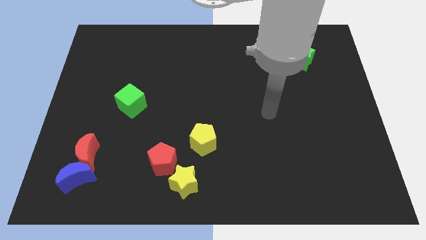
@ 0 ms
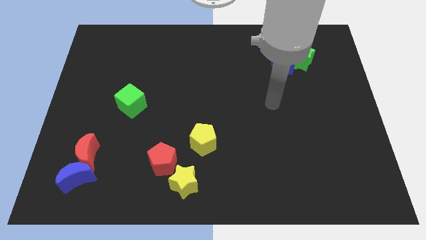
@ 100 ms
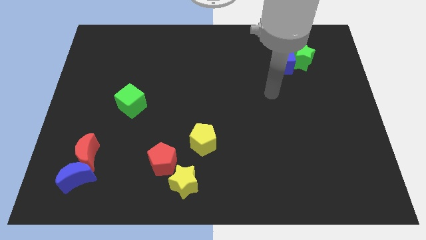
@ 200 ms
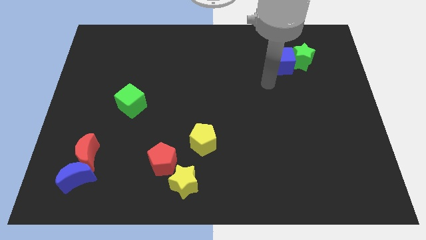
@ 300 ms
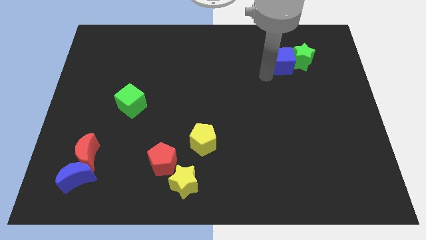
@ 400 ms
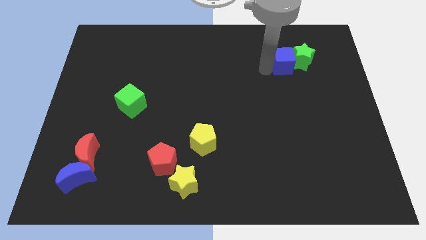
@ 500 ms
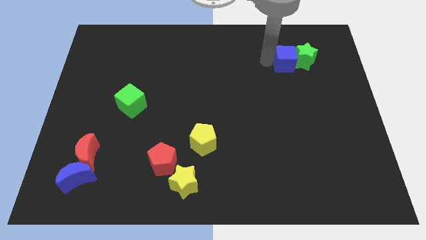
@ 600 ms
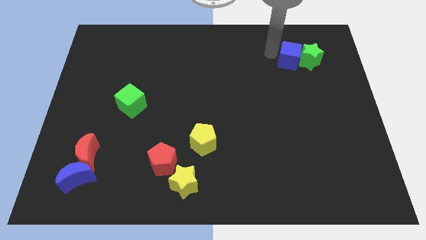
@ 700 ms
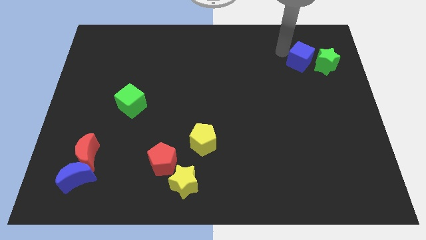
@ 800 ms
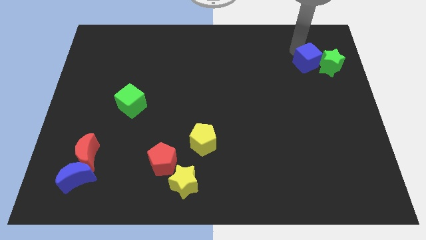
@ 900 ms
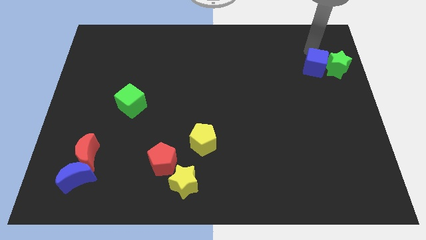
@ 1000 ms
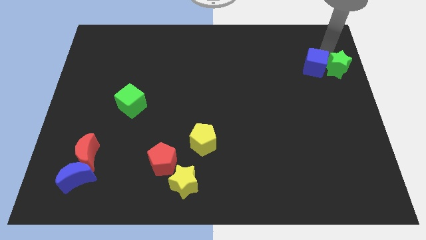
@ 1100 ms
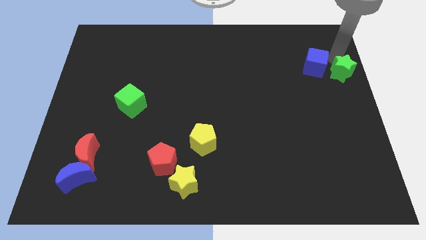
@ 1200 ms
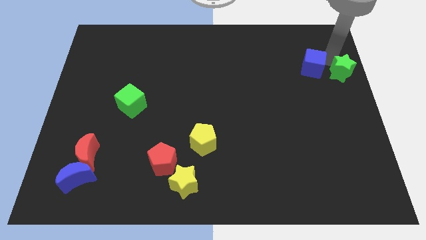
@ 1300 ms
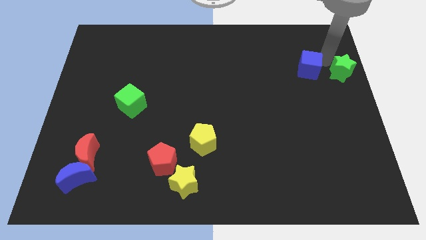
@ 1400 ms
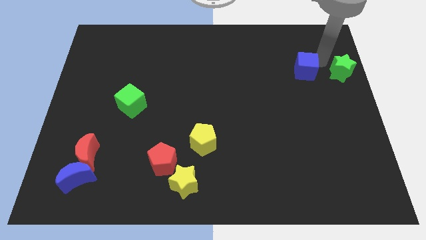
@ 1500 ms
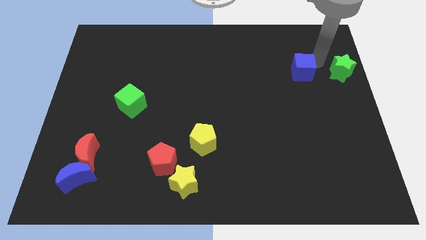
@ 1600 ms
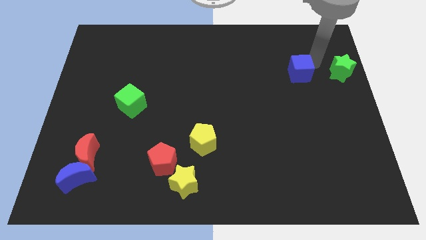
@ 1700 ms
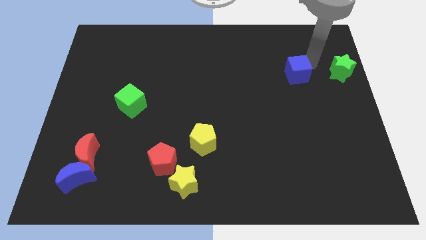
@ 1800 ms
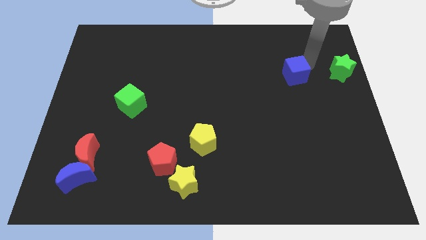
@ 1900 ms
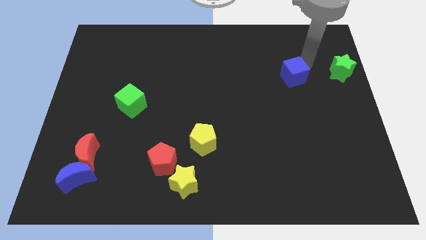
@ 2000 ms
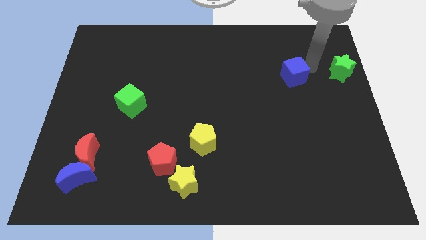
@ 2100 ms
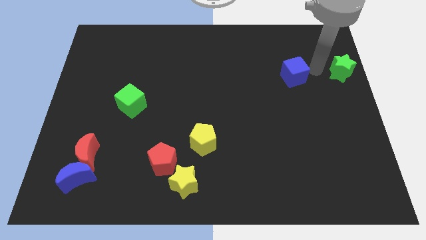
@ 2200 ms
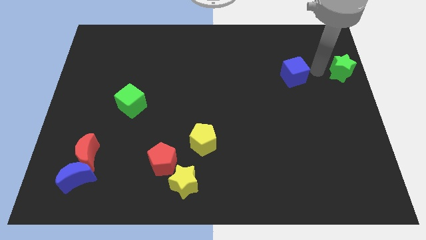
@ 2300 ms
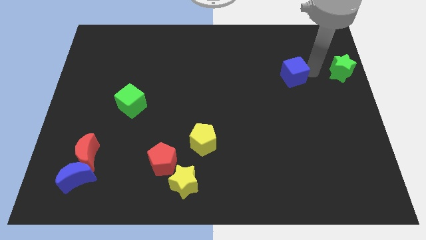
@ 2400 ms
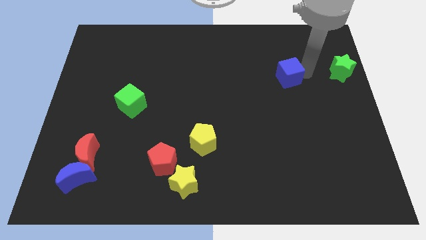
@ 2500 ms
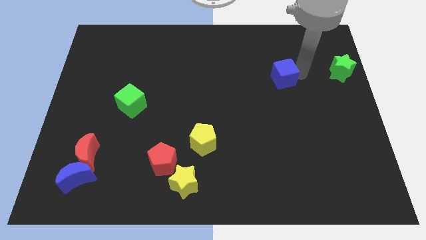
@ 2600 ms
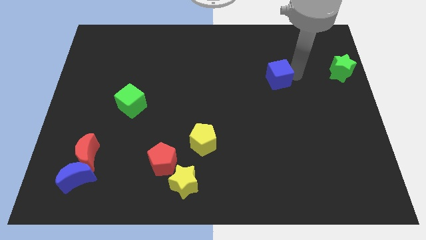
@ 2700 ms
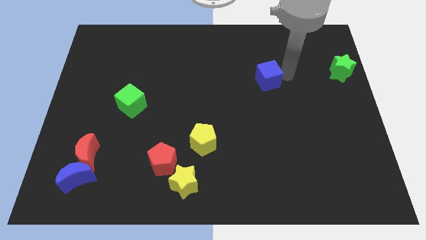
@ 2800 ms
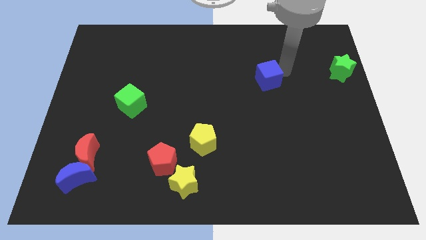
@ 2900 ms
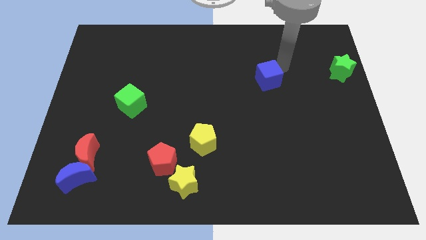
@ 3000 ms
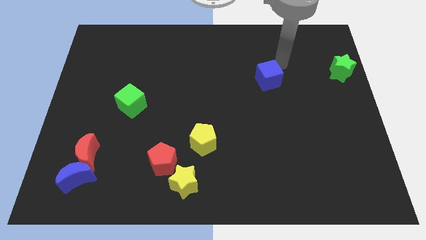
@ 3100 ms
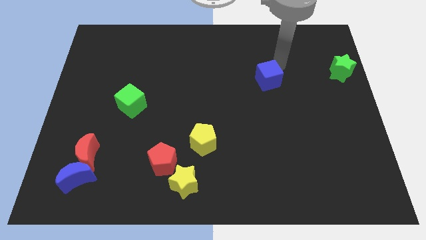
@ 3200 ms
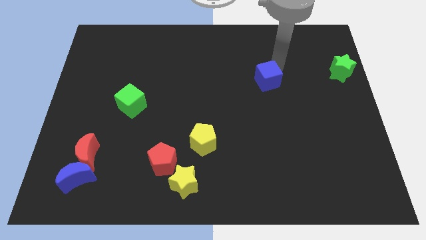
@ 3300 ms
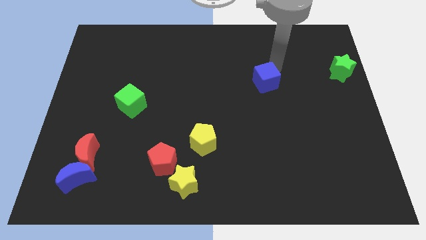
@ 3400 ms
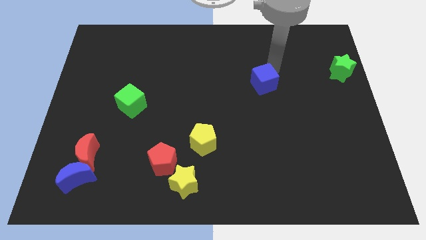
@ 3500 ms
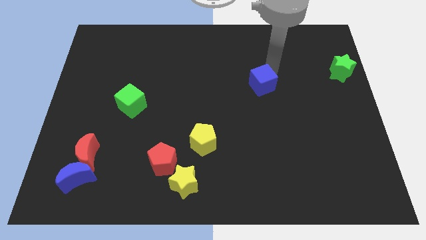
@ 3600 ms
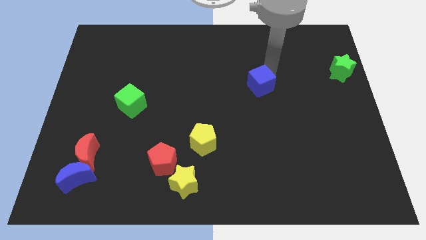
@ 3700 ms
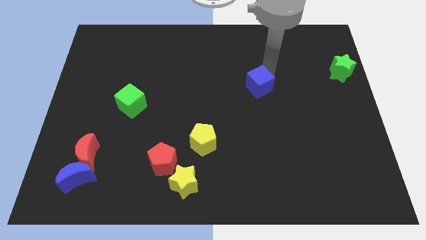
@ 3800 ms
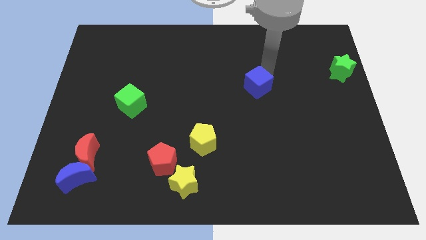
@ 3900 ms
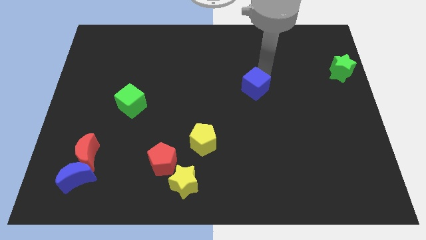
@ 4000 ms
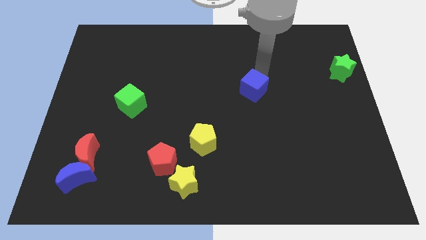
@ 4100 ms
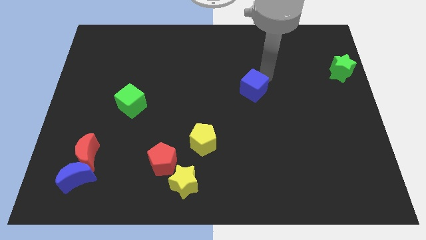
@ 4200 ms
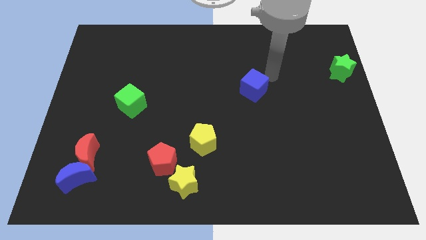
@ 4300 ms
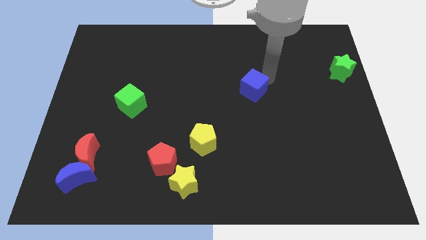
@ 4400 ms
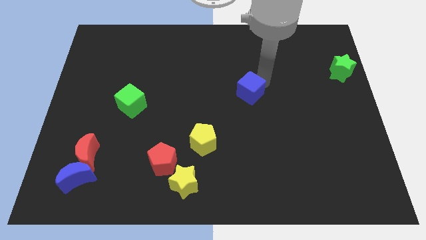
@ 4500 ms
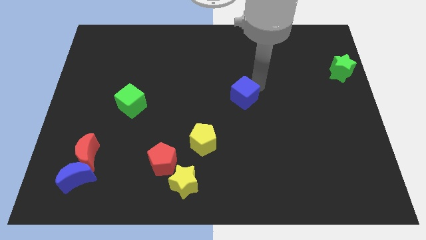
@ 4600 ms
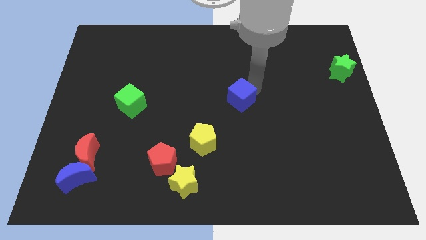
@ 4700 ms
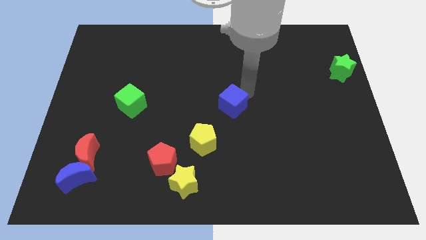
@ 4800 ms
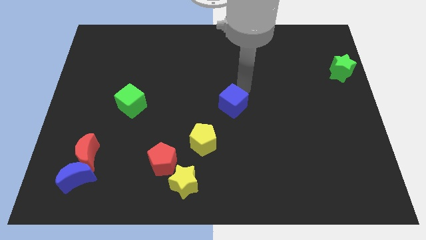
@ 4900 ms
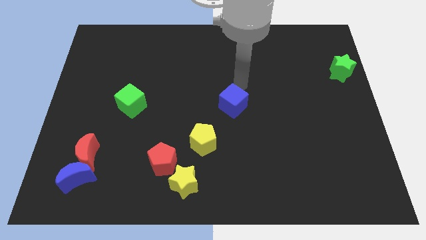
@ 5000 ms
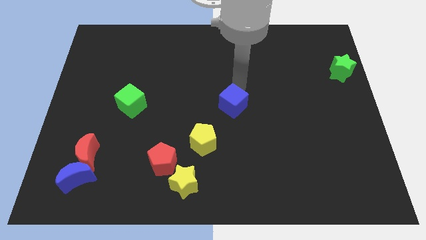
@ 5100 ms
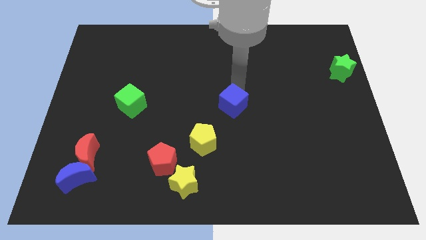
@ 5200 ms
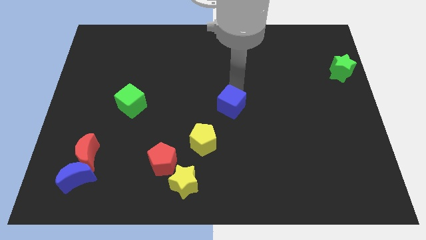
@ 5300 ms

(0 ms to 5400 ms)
move the blue cube to the top right of the yellow pentagon

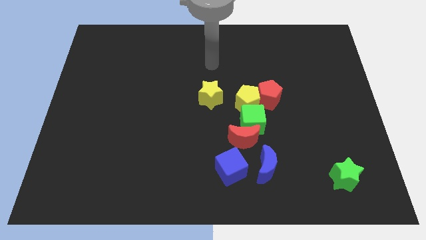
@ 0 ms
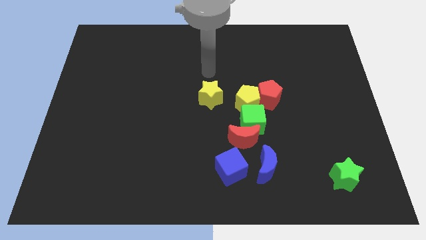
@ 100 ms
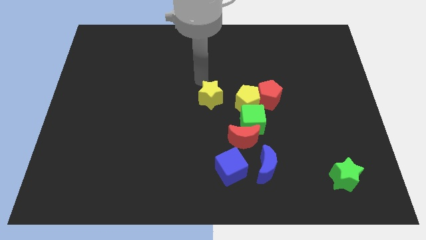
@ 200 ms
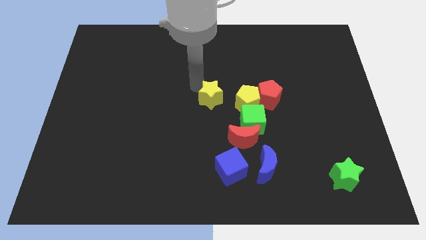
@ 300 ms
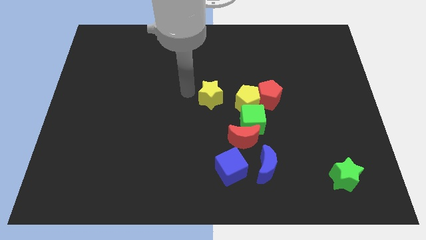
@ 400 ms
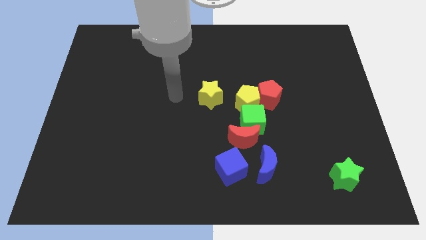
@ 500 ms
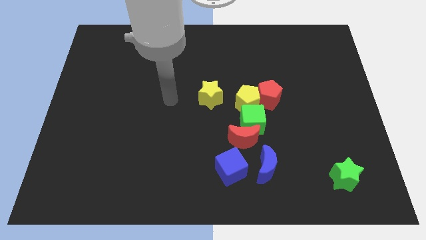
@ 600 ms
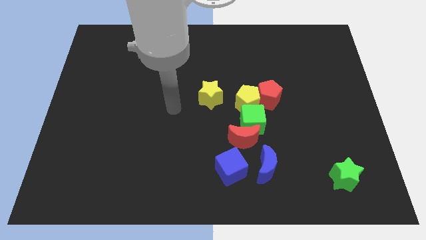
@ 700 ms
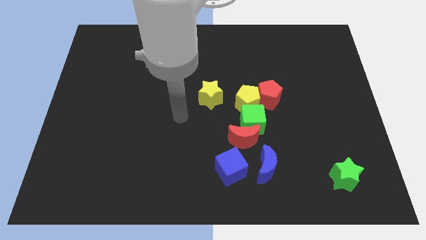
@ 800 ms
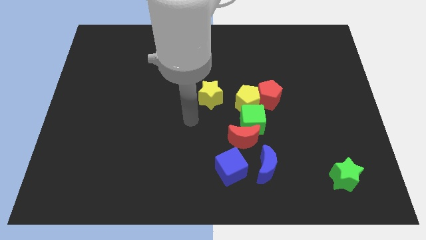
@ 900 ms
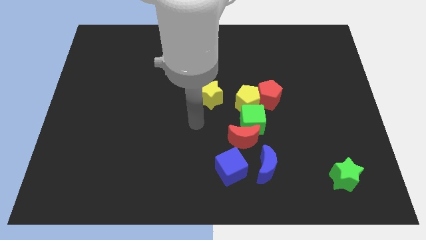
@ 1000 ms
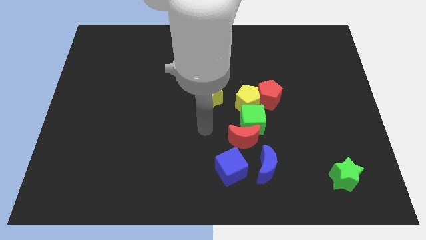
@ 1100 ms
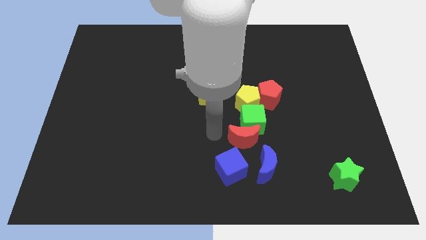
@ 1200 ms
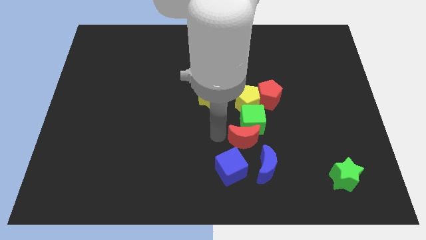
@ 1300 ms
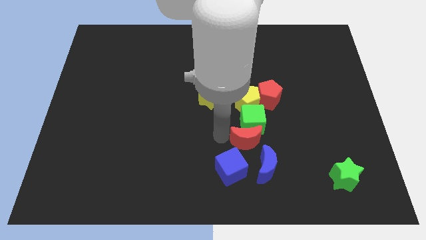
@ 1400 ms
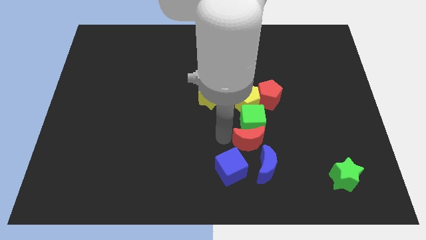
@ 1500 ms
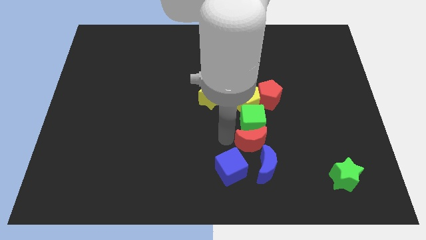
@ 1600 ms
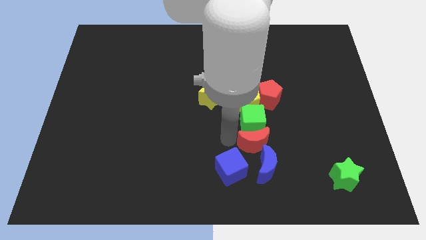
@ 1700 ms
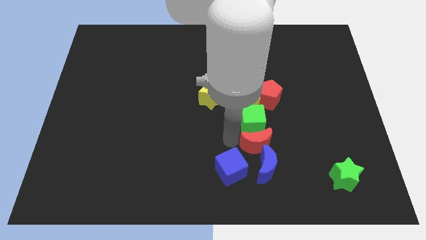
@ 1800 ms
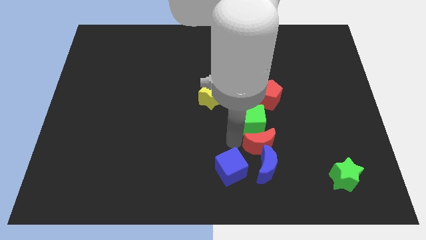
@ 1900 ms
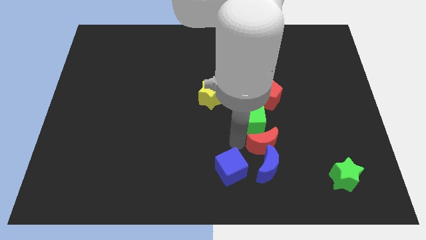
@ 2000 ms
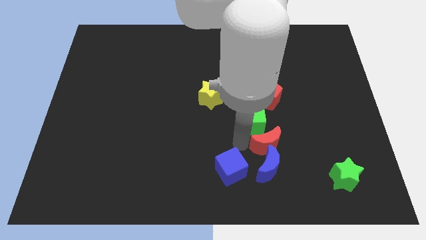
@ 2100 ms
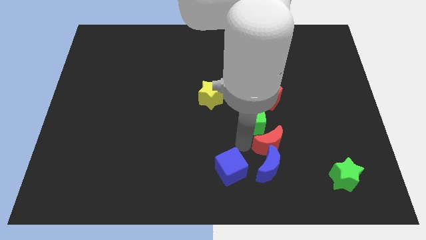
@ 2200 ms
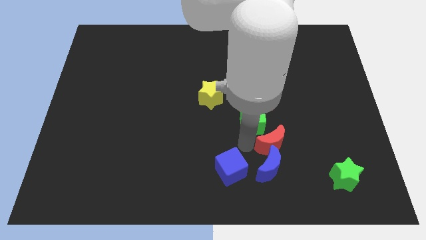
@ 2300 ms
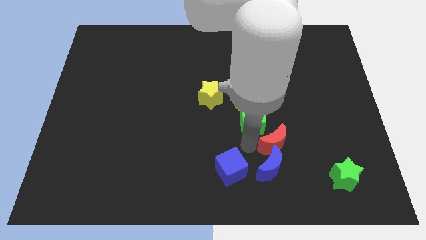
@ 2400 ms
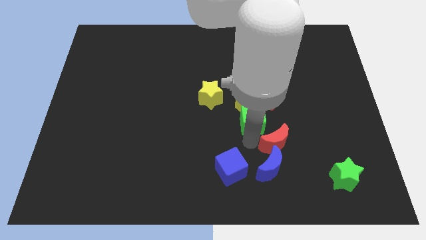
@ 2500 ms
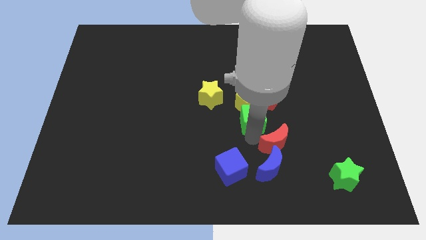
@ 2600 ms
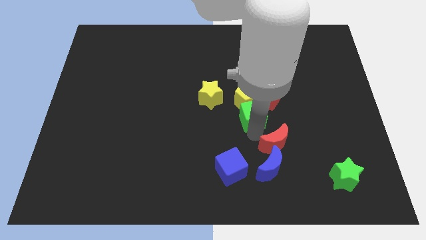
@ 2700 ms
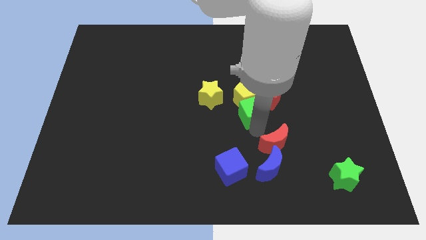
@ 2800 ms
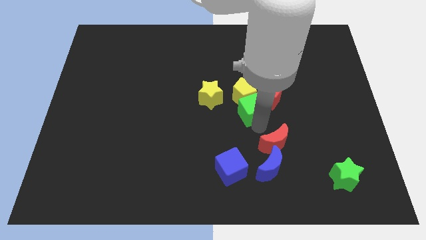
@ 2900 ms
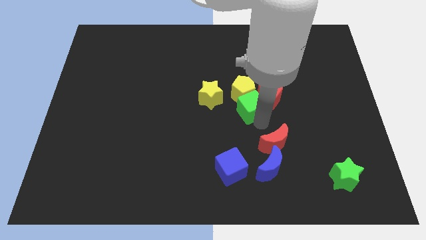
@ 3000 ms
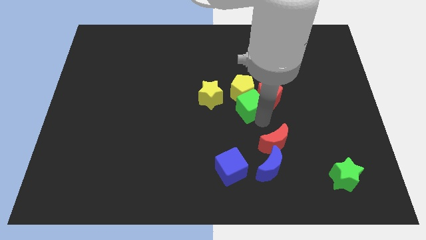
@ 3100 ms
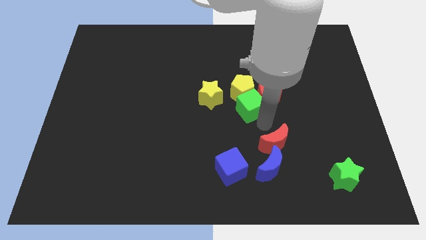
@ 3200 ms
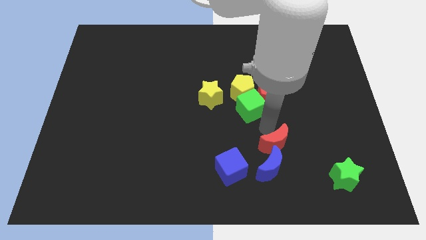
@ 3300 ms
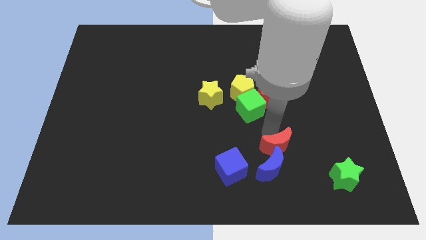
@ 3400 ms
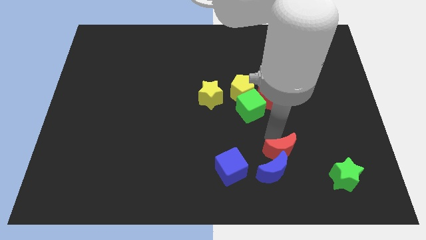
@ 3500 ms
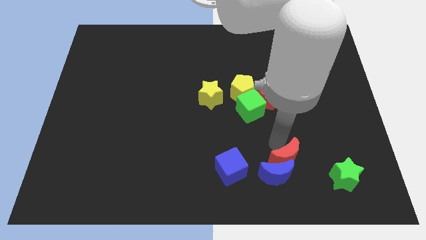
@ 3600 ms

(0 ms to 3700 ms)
move the red moon to the left side of the green star

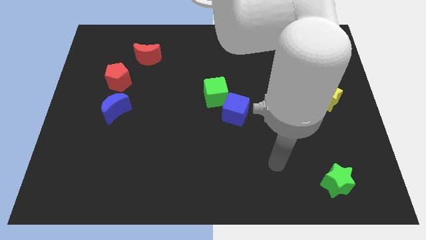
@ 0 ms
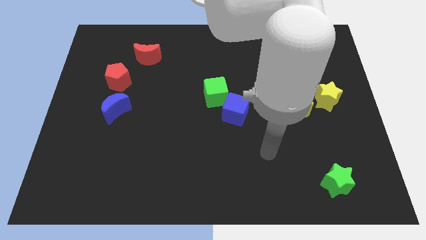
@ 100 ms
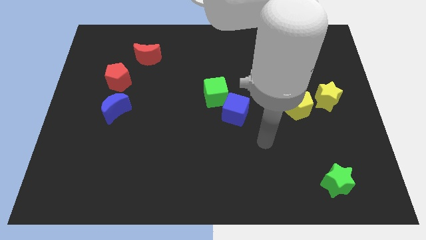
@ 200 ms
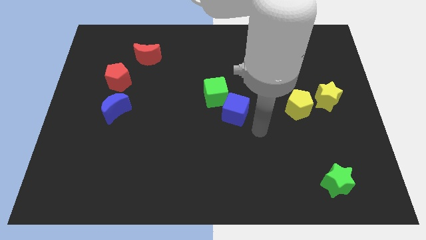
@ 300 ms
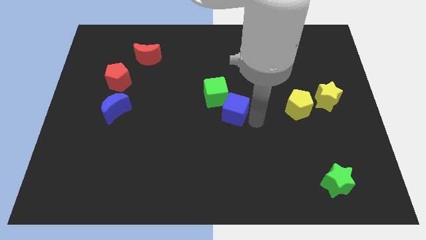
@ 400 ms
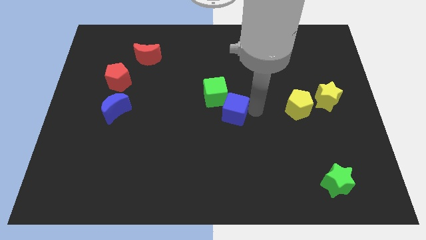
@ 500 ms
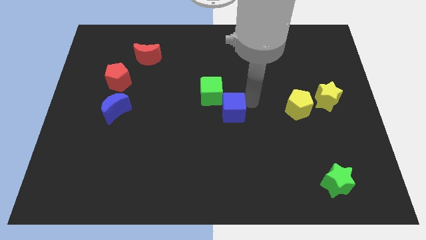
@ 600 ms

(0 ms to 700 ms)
move the green cube just left of the blue cube
